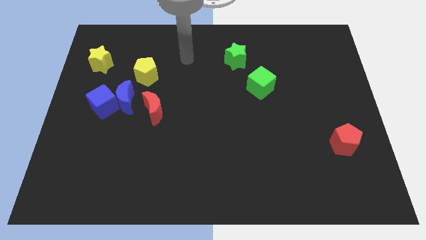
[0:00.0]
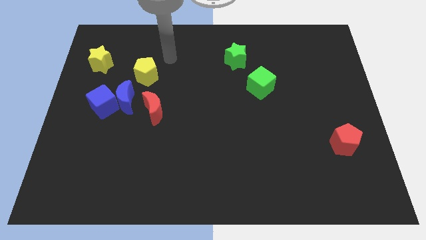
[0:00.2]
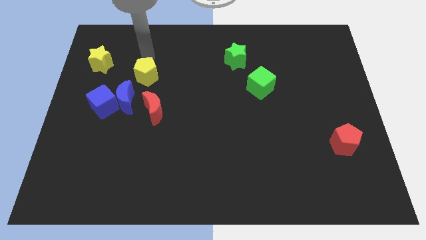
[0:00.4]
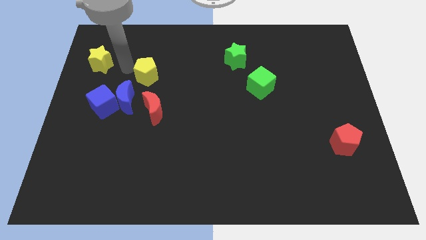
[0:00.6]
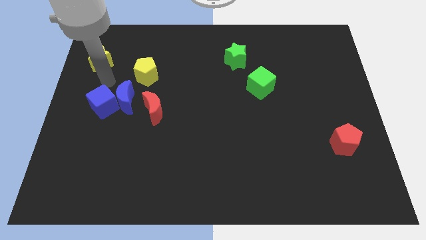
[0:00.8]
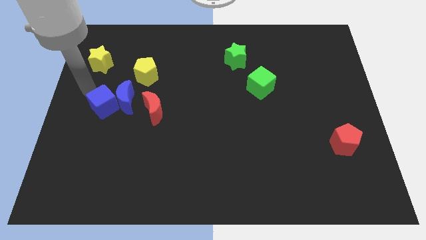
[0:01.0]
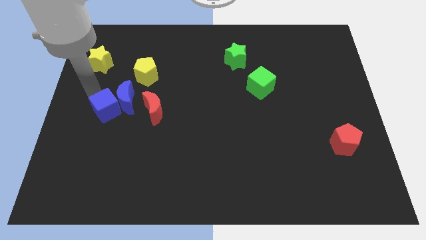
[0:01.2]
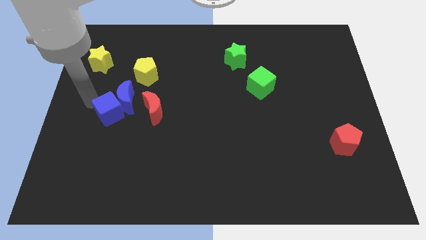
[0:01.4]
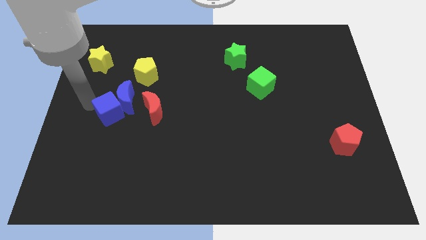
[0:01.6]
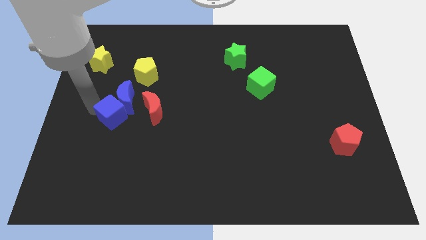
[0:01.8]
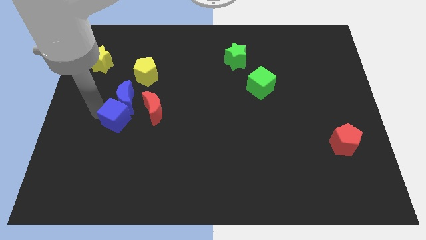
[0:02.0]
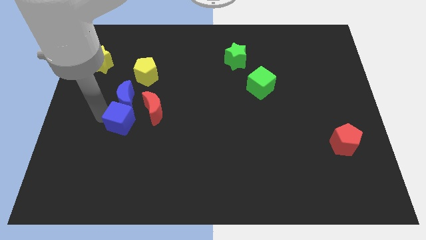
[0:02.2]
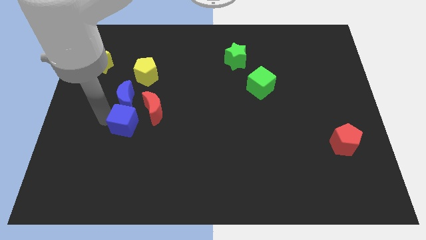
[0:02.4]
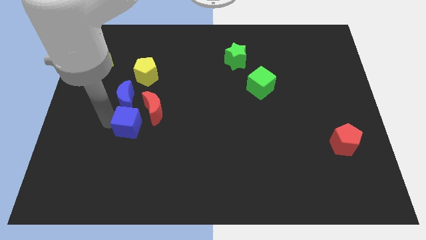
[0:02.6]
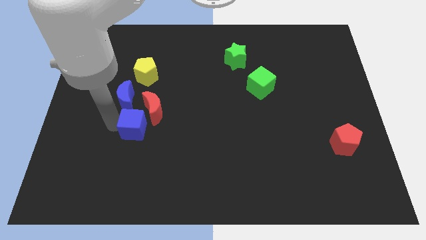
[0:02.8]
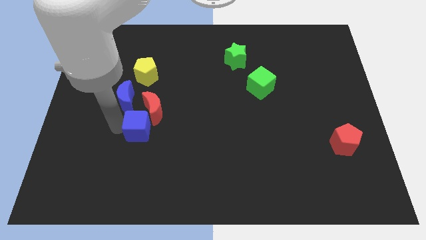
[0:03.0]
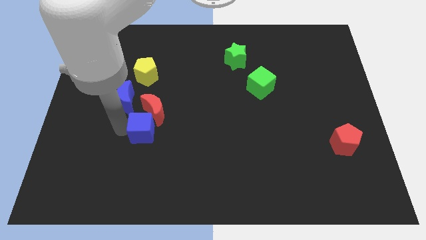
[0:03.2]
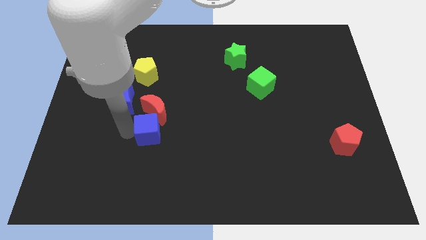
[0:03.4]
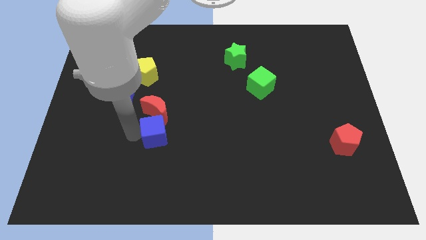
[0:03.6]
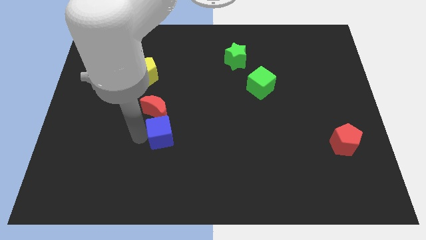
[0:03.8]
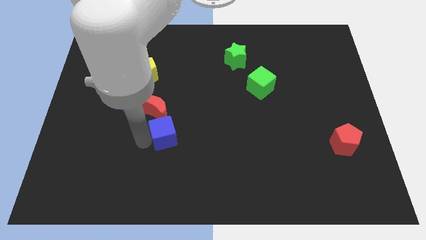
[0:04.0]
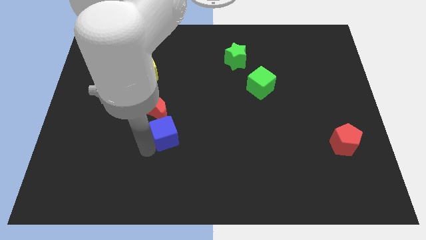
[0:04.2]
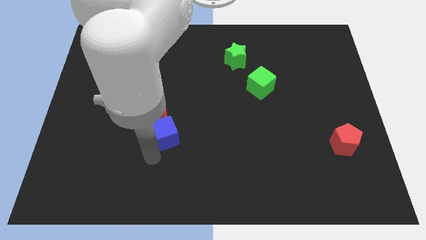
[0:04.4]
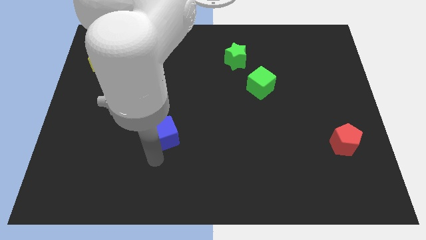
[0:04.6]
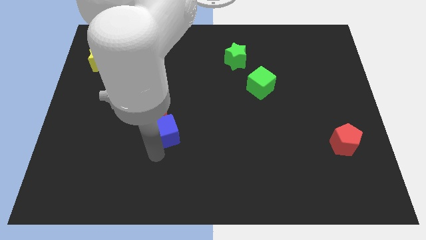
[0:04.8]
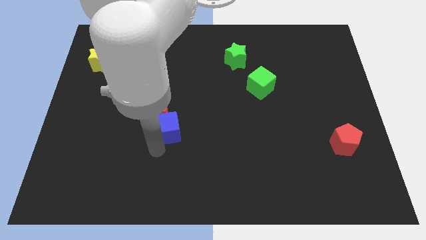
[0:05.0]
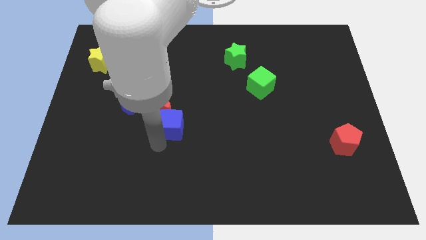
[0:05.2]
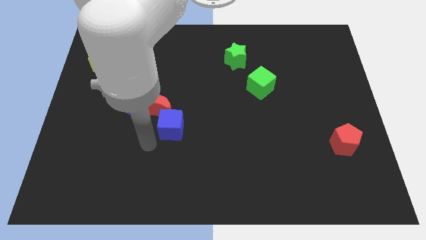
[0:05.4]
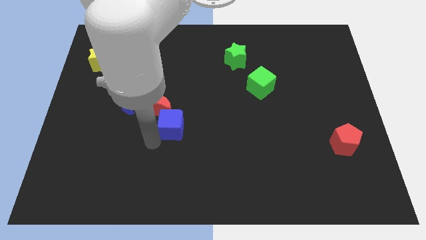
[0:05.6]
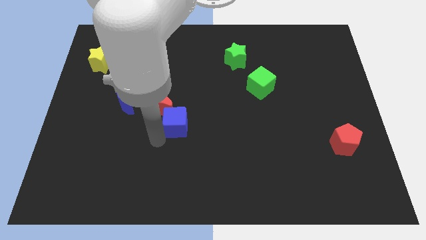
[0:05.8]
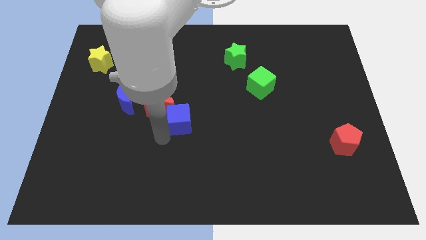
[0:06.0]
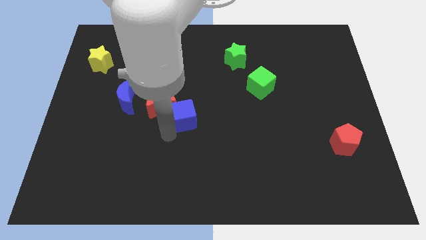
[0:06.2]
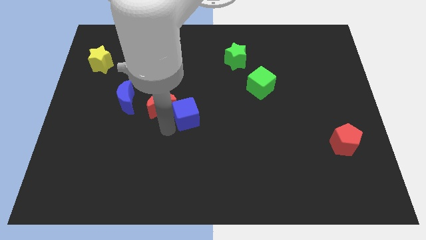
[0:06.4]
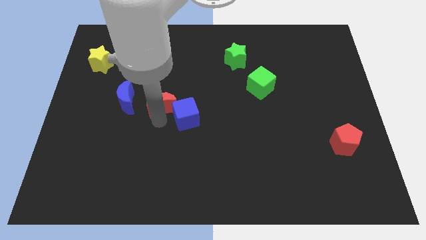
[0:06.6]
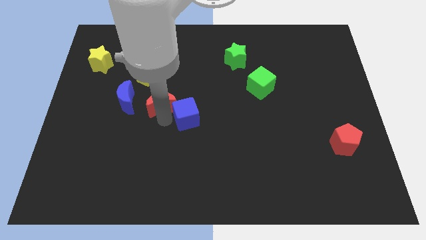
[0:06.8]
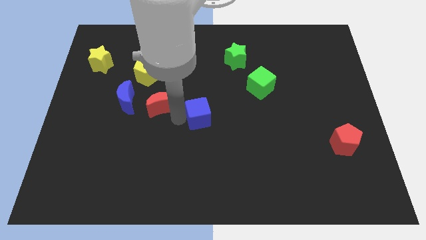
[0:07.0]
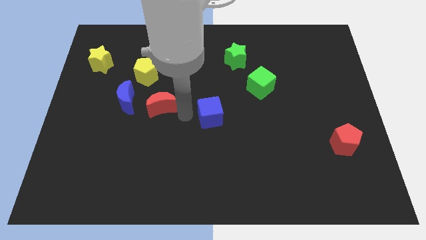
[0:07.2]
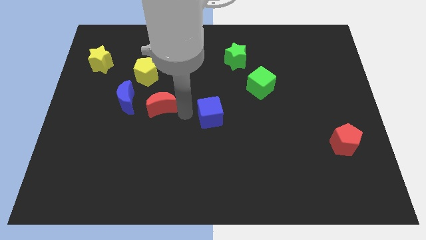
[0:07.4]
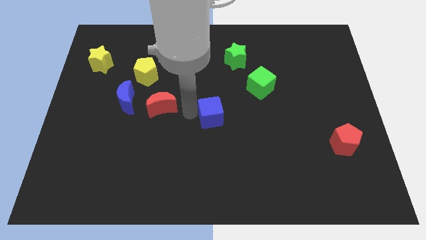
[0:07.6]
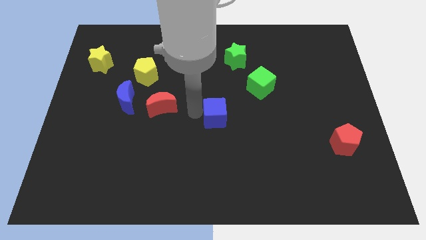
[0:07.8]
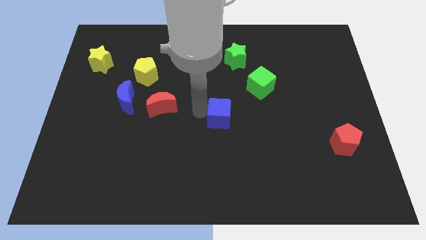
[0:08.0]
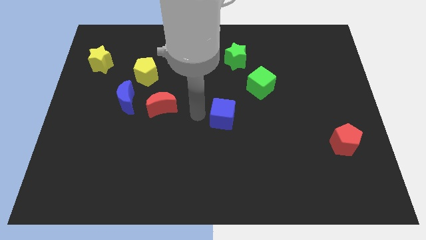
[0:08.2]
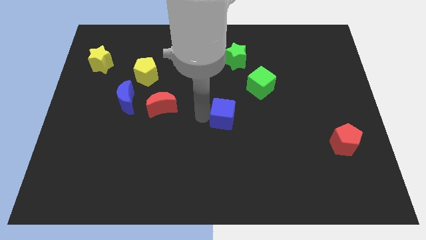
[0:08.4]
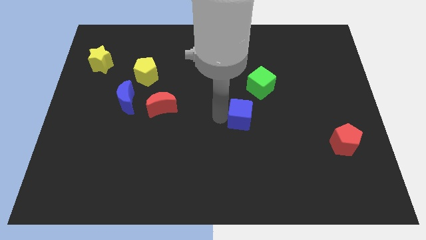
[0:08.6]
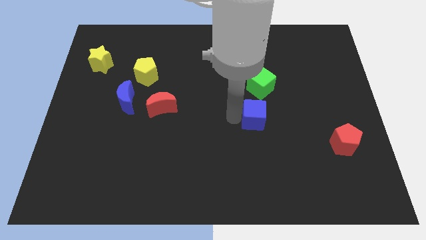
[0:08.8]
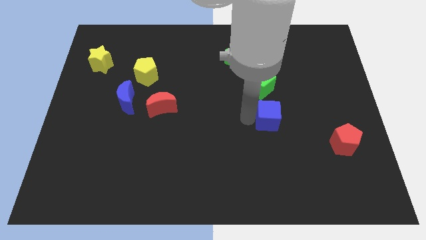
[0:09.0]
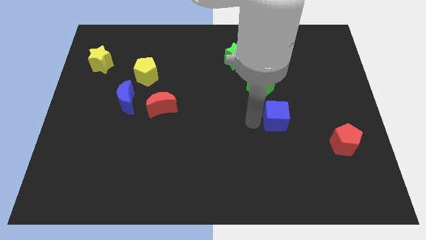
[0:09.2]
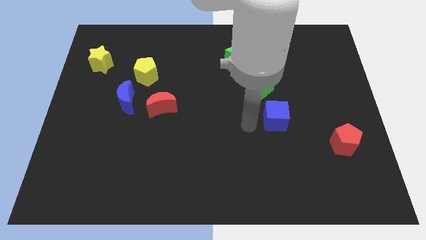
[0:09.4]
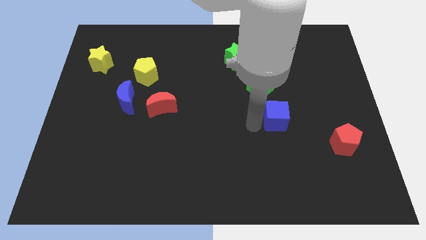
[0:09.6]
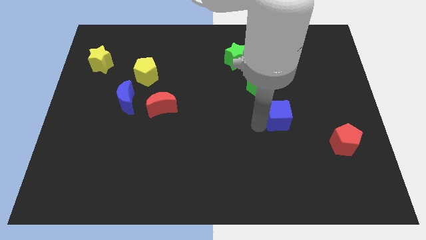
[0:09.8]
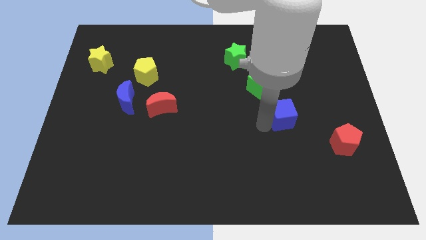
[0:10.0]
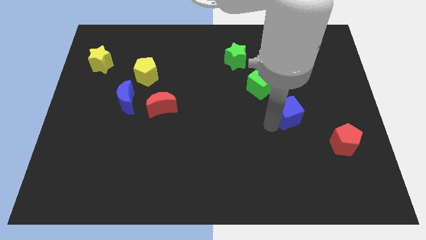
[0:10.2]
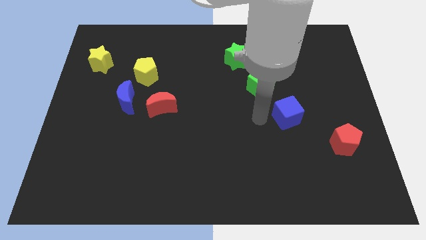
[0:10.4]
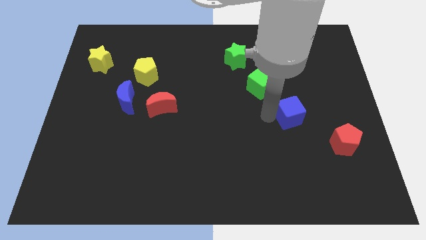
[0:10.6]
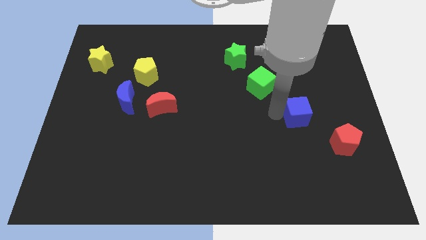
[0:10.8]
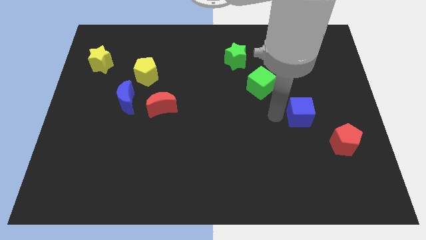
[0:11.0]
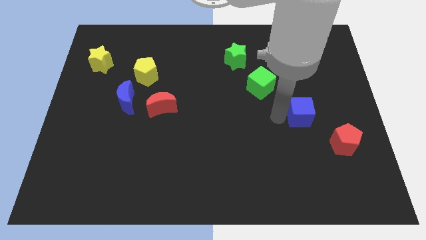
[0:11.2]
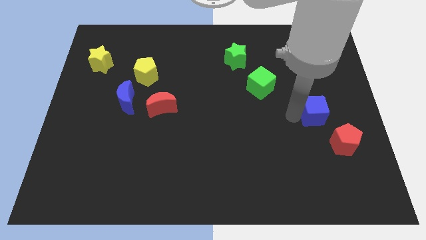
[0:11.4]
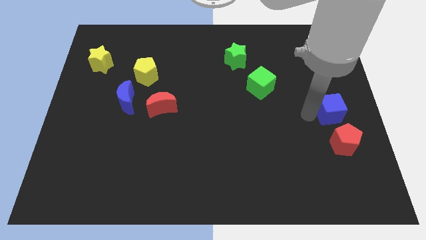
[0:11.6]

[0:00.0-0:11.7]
put the blue cube to the right side

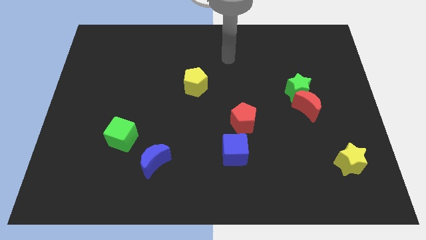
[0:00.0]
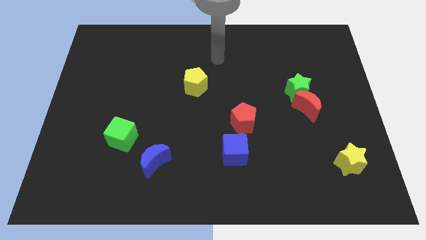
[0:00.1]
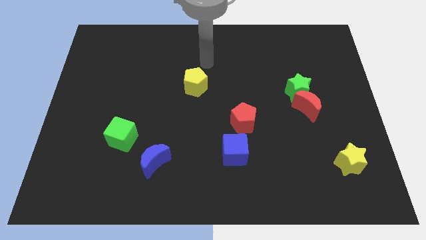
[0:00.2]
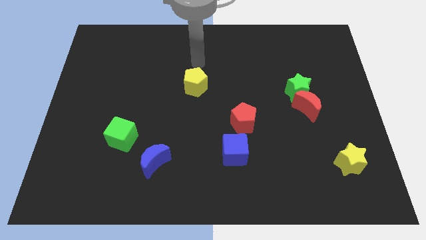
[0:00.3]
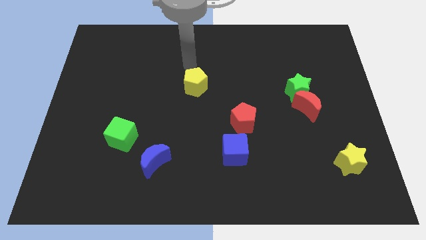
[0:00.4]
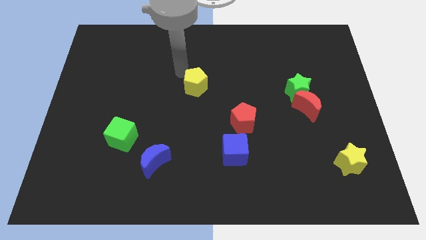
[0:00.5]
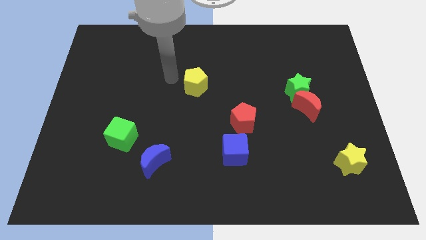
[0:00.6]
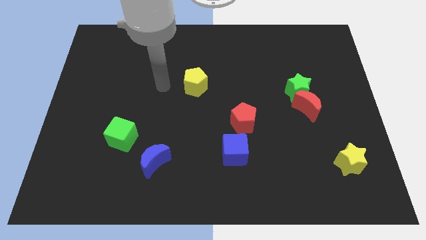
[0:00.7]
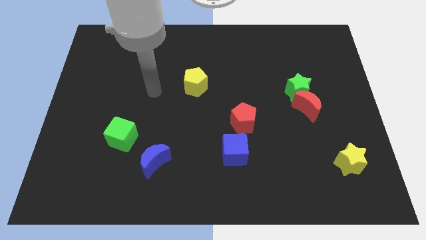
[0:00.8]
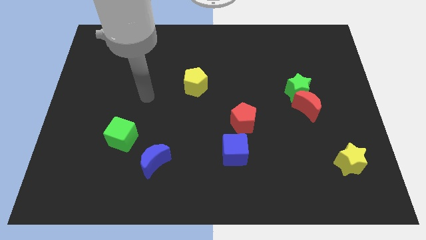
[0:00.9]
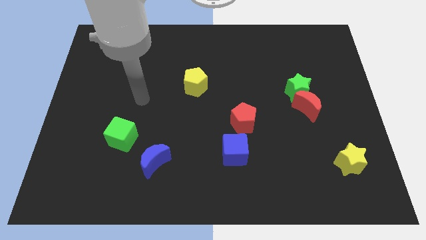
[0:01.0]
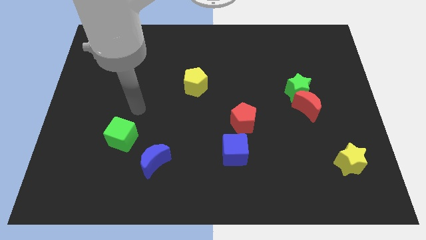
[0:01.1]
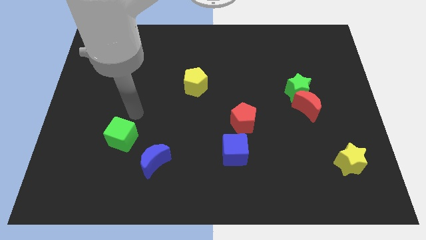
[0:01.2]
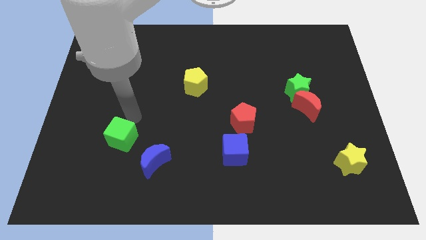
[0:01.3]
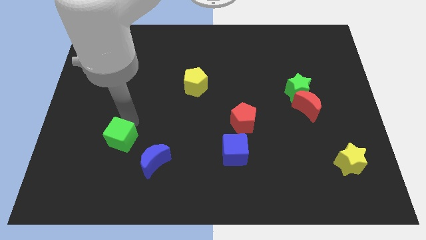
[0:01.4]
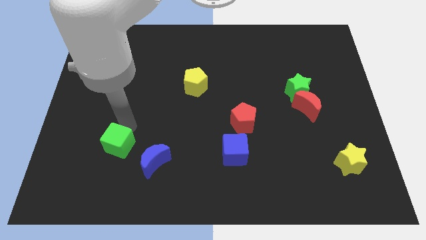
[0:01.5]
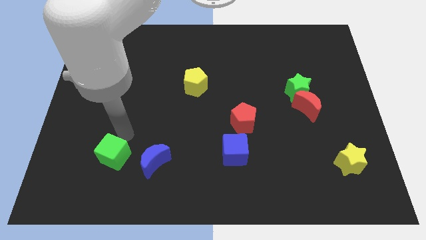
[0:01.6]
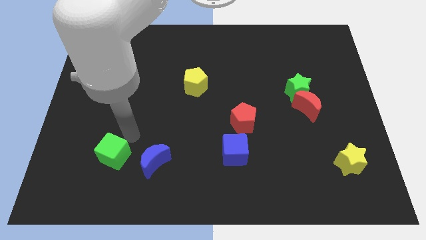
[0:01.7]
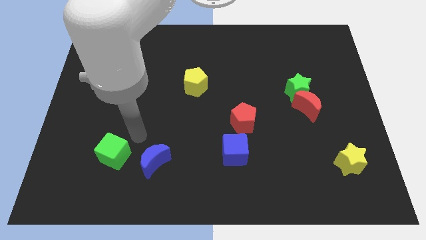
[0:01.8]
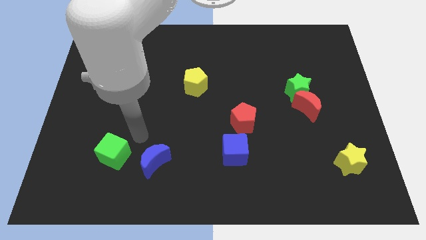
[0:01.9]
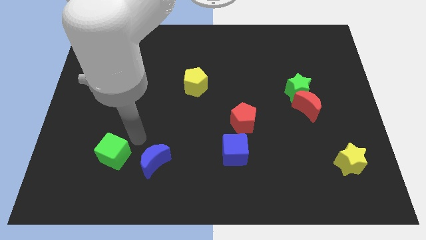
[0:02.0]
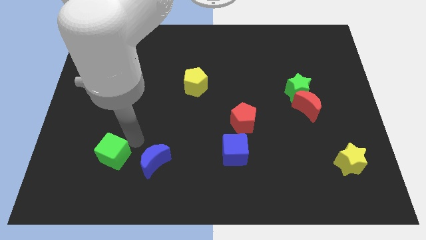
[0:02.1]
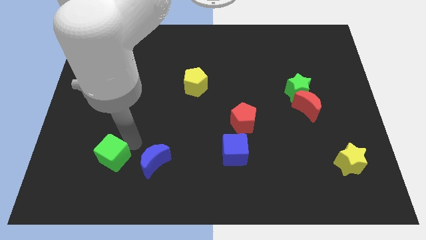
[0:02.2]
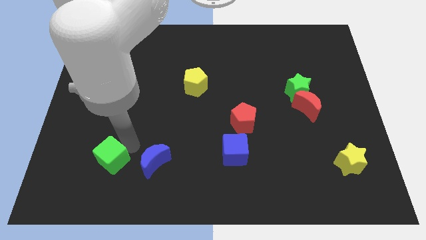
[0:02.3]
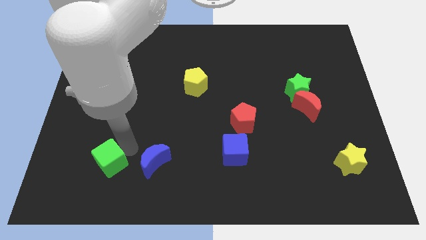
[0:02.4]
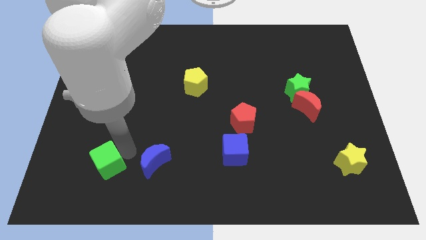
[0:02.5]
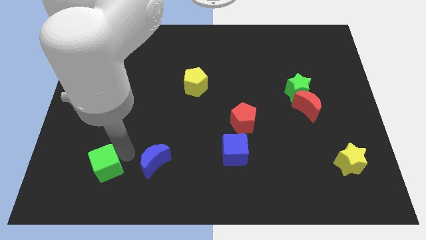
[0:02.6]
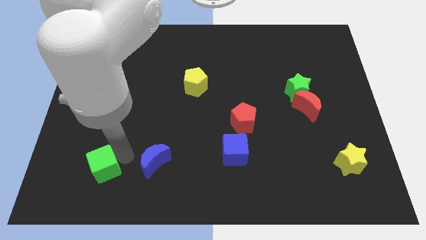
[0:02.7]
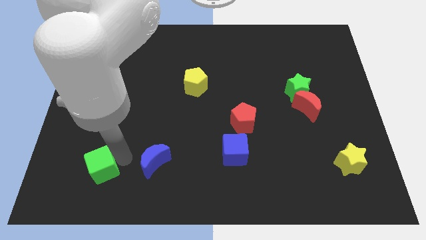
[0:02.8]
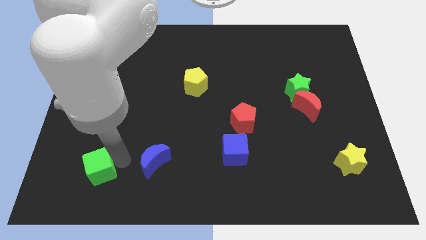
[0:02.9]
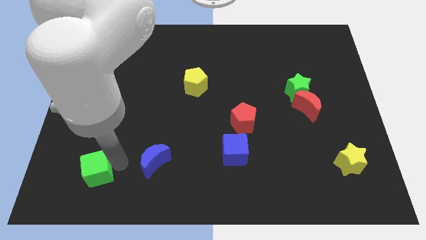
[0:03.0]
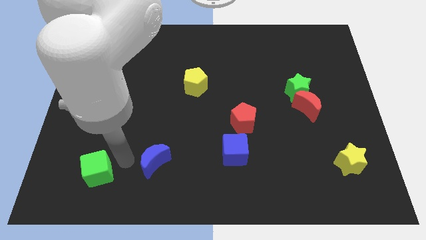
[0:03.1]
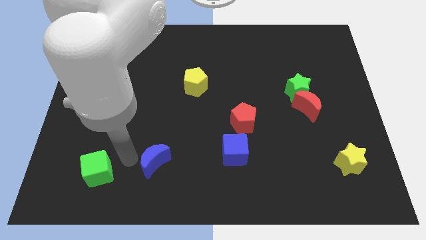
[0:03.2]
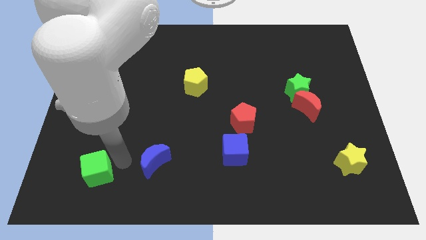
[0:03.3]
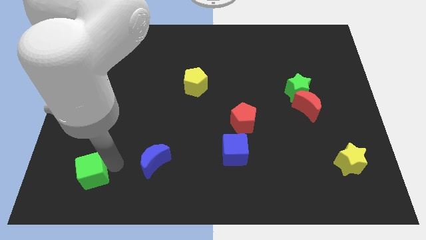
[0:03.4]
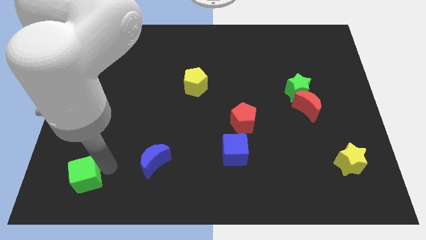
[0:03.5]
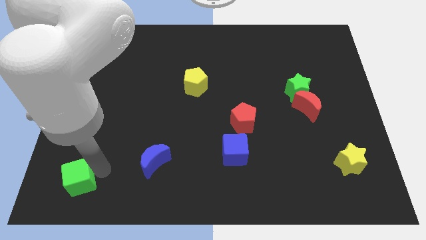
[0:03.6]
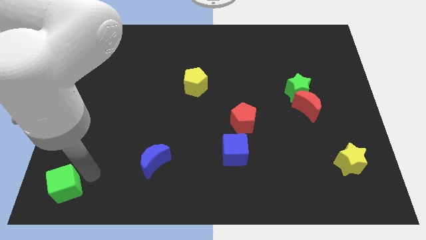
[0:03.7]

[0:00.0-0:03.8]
put the green cube to the lower left corner
